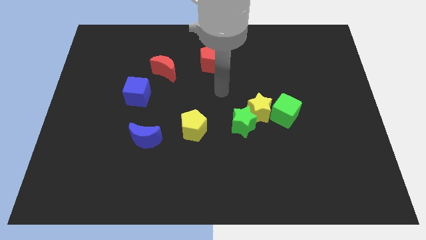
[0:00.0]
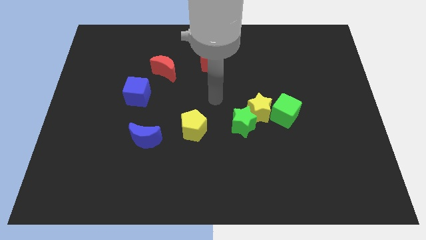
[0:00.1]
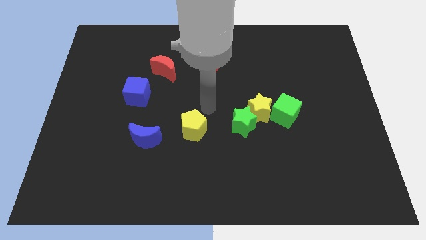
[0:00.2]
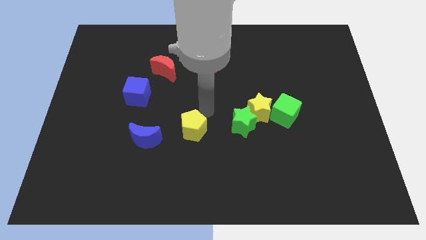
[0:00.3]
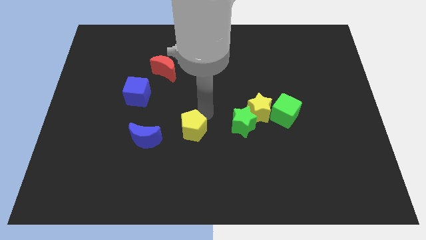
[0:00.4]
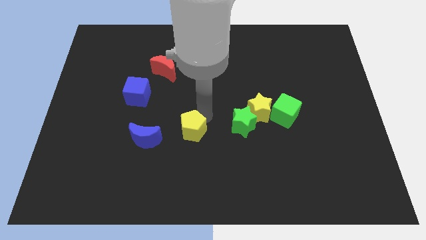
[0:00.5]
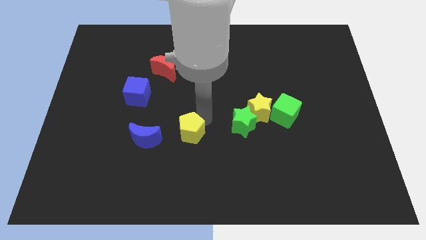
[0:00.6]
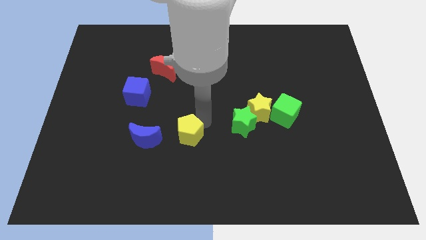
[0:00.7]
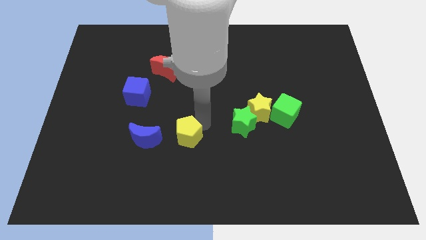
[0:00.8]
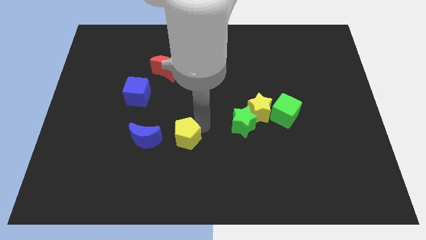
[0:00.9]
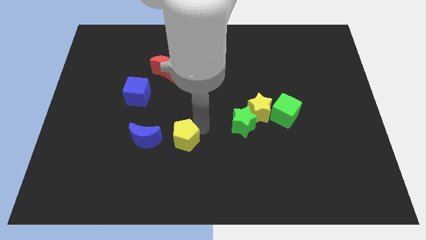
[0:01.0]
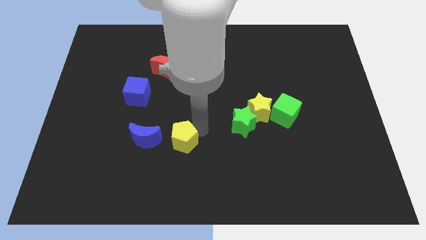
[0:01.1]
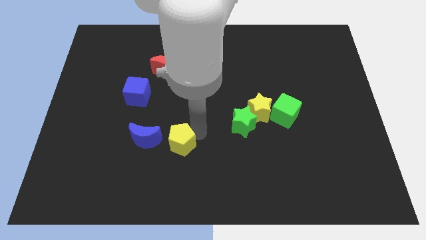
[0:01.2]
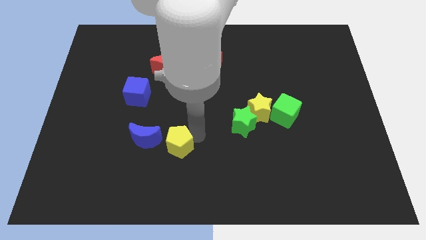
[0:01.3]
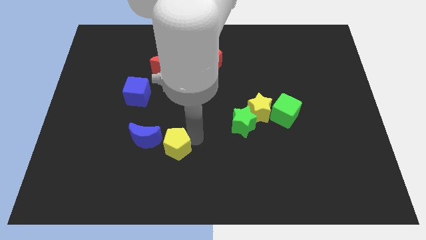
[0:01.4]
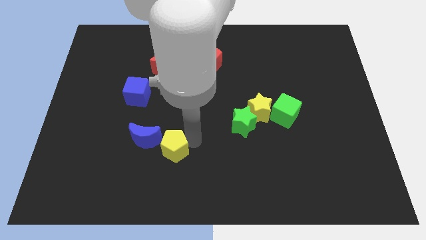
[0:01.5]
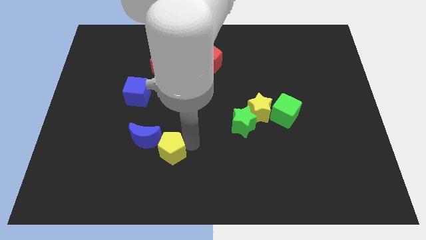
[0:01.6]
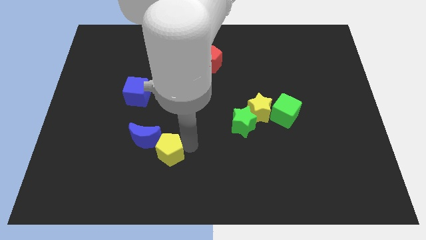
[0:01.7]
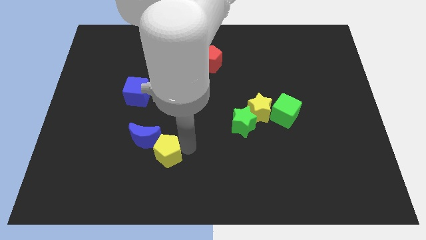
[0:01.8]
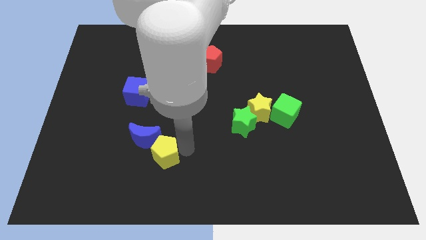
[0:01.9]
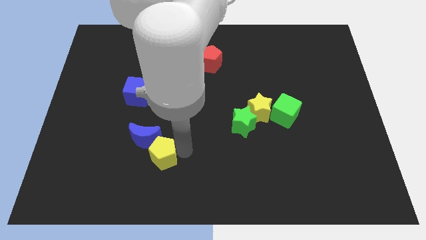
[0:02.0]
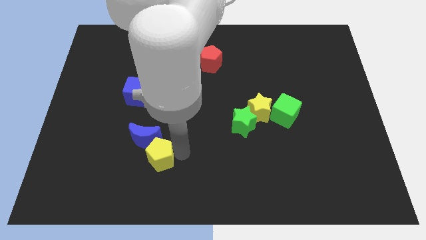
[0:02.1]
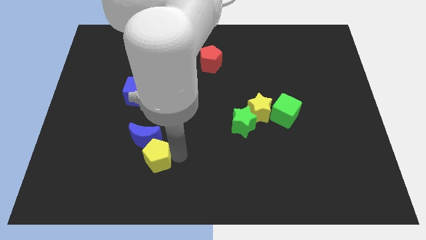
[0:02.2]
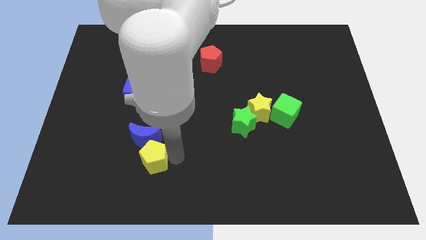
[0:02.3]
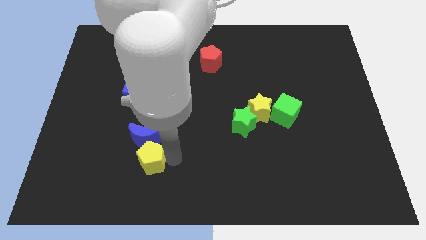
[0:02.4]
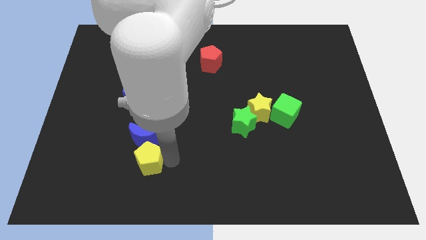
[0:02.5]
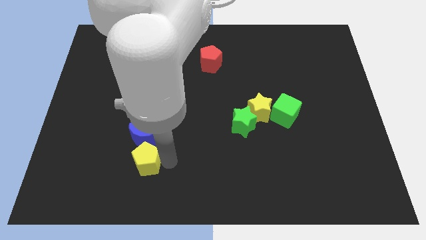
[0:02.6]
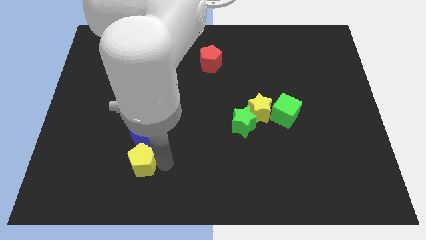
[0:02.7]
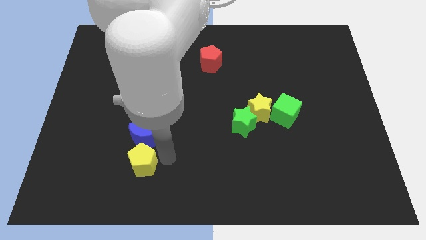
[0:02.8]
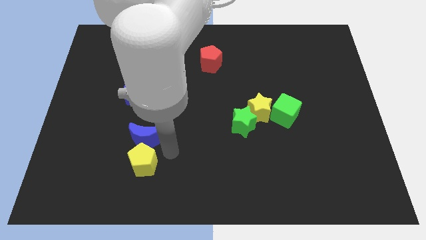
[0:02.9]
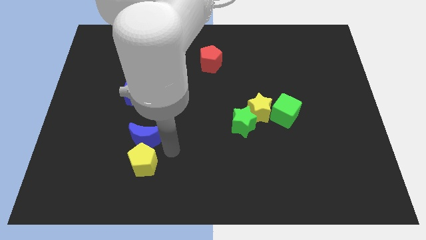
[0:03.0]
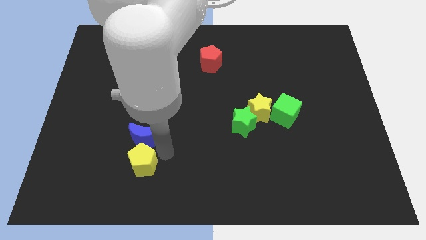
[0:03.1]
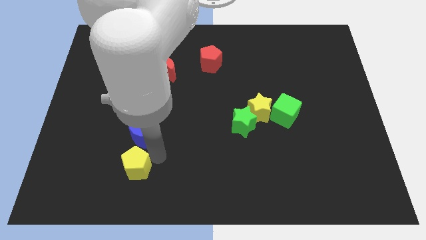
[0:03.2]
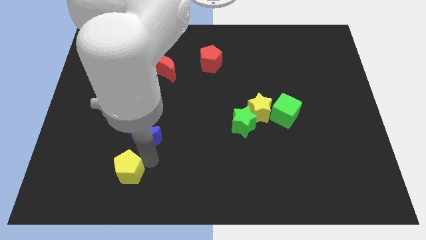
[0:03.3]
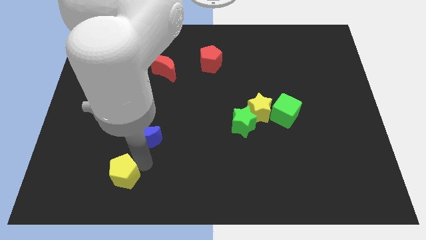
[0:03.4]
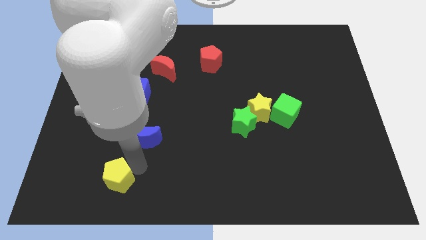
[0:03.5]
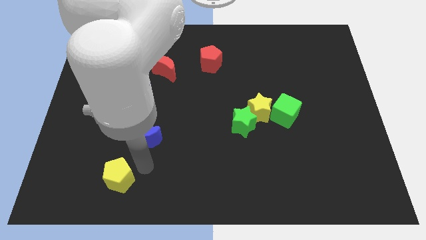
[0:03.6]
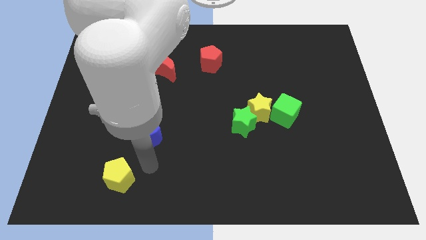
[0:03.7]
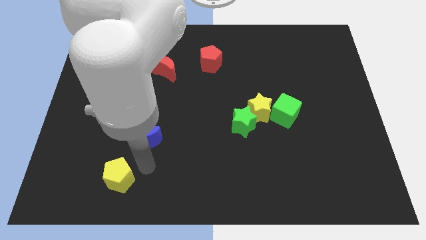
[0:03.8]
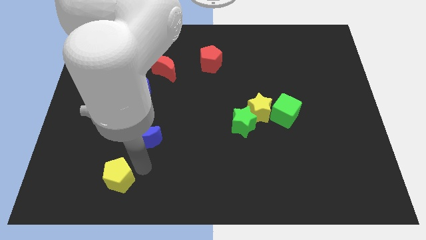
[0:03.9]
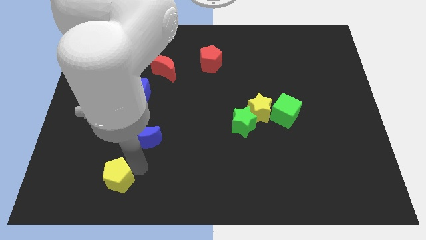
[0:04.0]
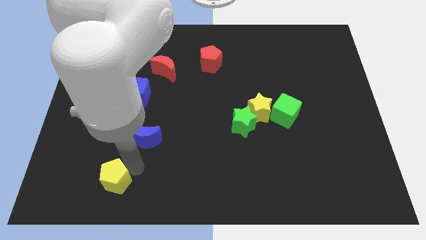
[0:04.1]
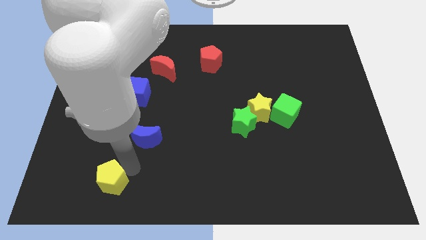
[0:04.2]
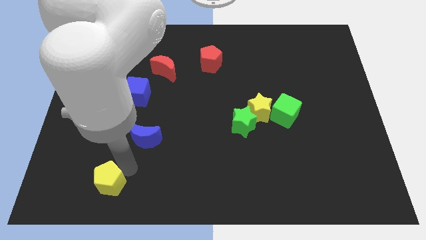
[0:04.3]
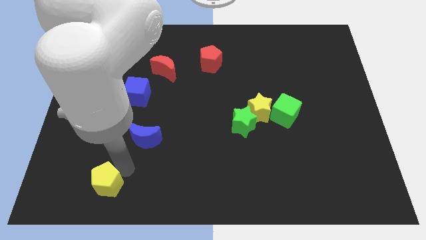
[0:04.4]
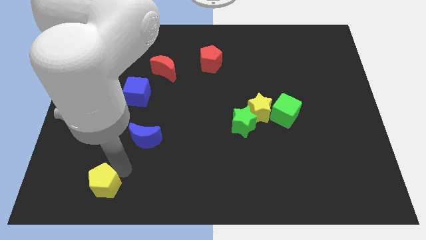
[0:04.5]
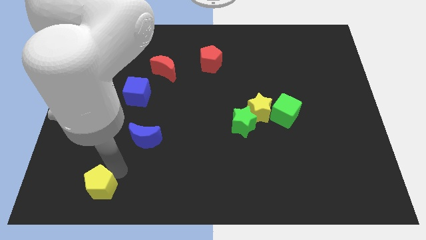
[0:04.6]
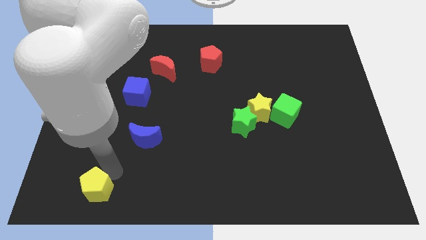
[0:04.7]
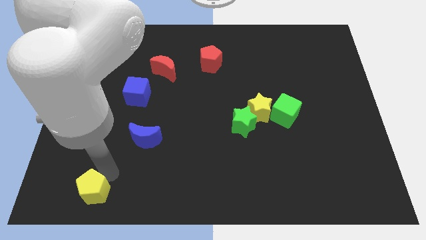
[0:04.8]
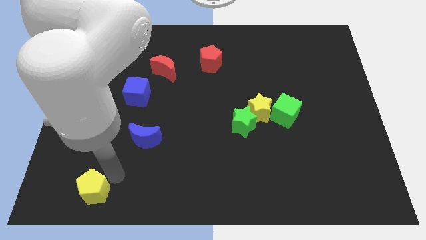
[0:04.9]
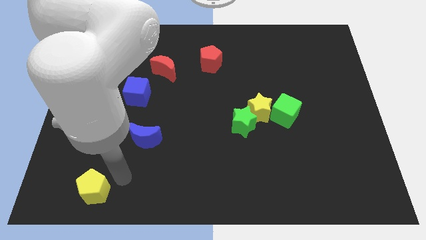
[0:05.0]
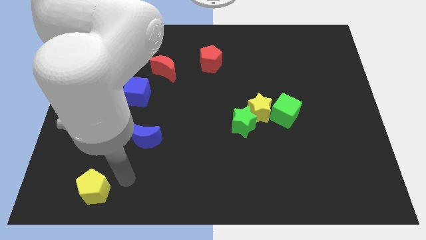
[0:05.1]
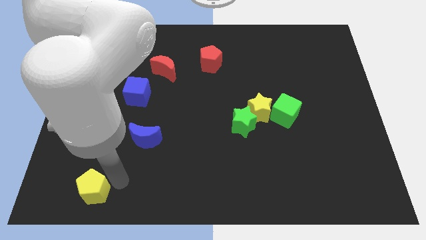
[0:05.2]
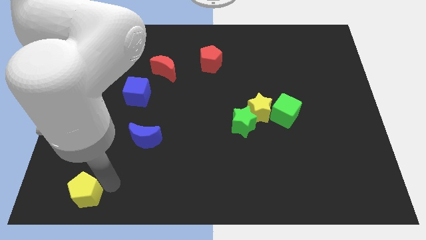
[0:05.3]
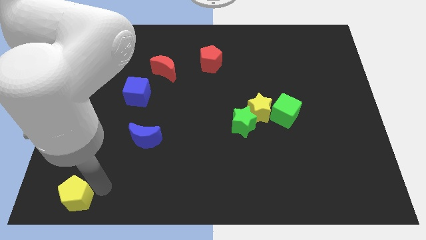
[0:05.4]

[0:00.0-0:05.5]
slide the yellow pentagon to the lower left corner

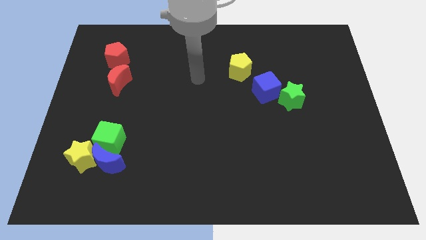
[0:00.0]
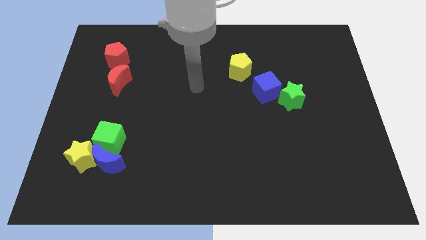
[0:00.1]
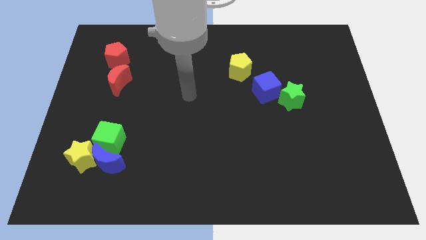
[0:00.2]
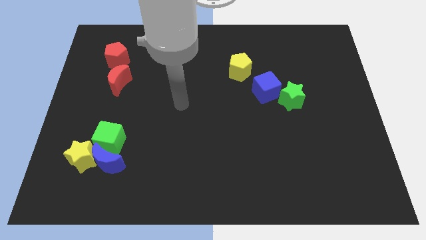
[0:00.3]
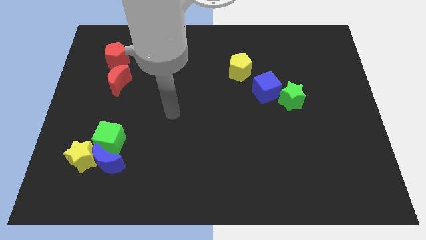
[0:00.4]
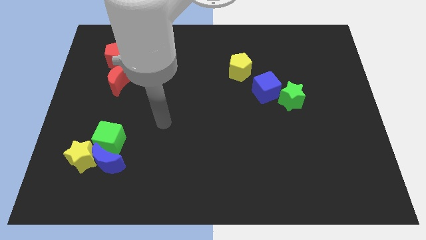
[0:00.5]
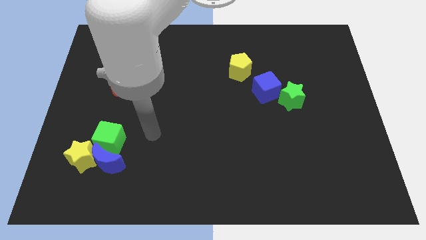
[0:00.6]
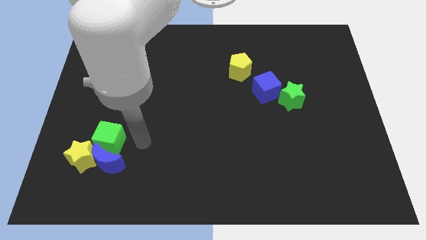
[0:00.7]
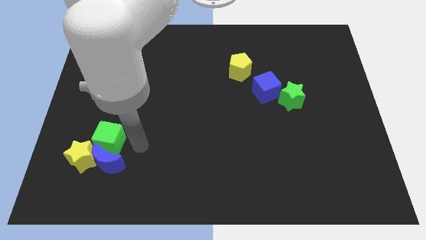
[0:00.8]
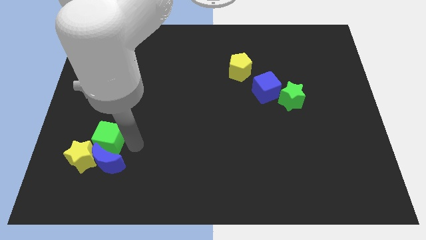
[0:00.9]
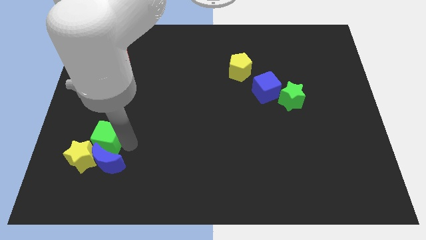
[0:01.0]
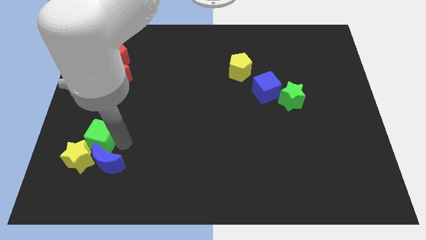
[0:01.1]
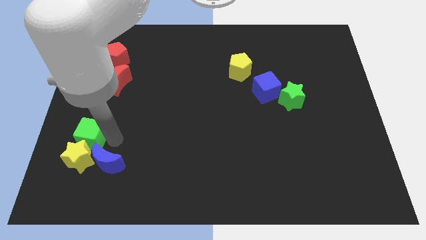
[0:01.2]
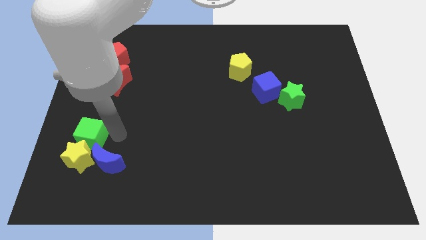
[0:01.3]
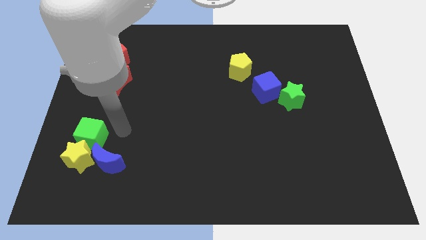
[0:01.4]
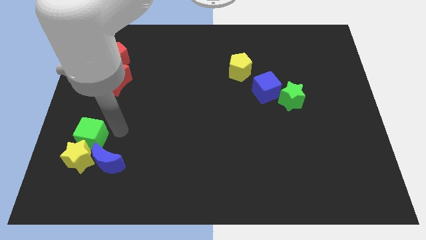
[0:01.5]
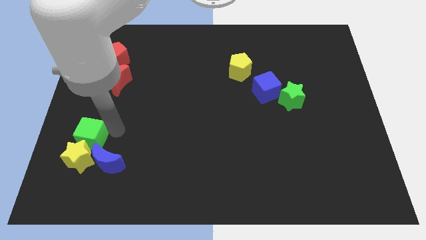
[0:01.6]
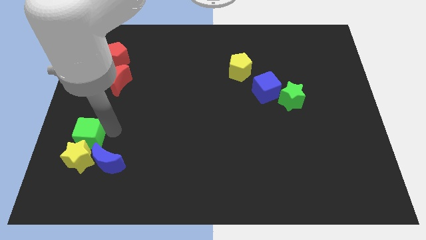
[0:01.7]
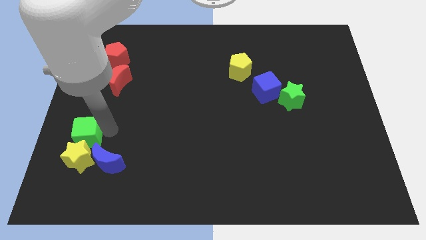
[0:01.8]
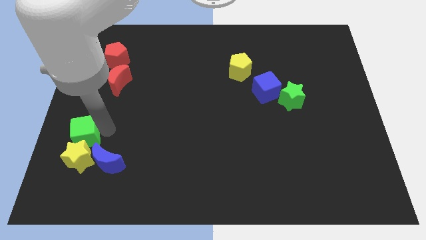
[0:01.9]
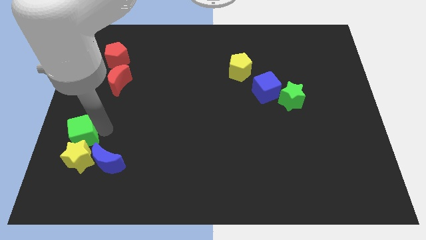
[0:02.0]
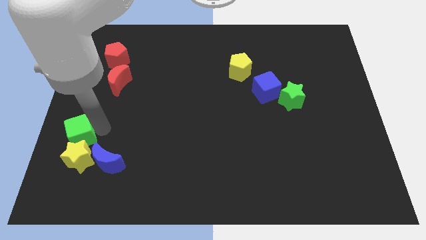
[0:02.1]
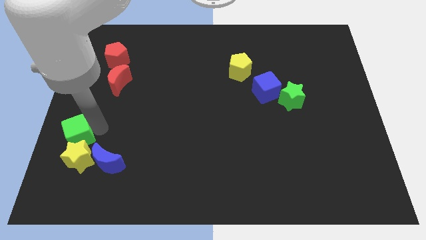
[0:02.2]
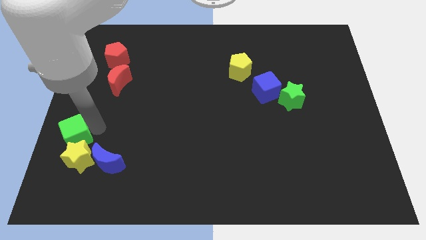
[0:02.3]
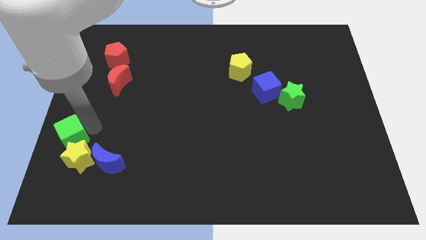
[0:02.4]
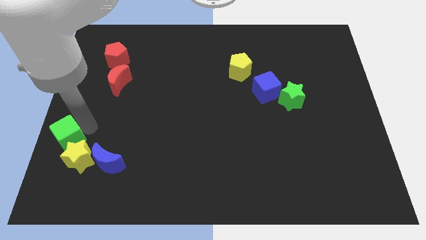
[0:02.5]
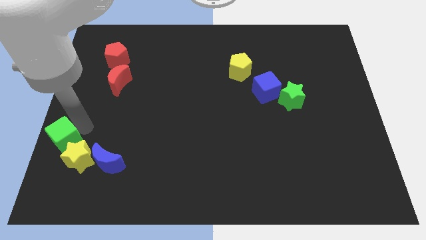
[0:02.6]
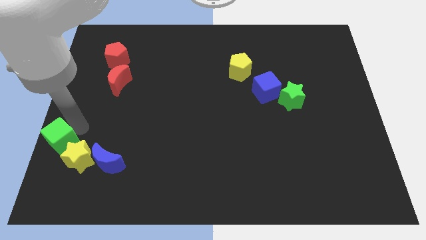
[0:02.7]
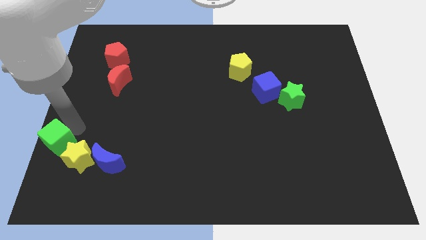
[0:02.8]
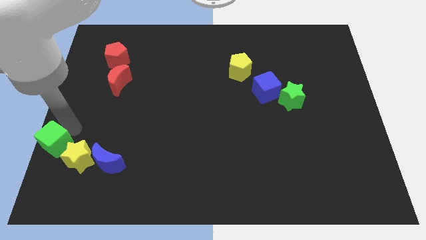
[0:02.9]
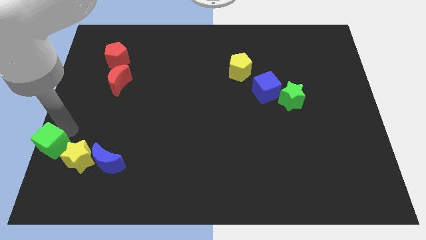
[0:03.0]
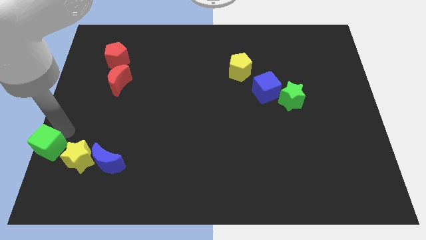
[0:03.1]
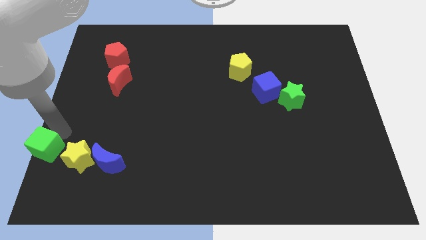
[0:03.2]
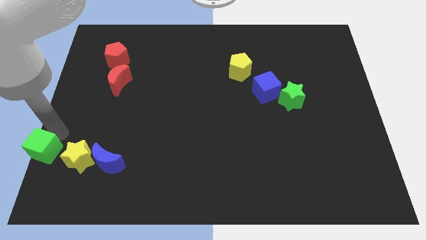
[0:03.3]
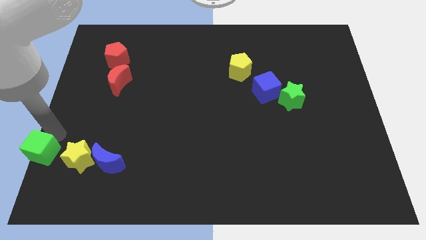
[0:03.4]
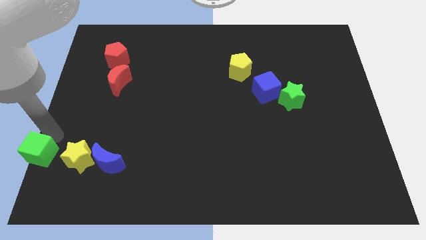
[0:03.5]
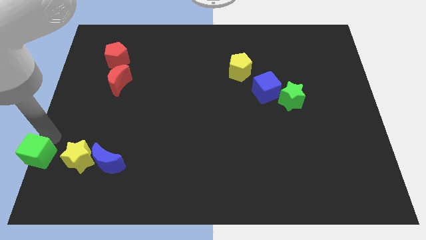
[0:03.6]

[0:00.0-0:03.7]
move the green cube to the bottom left corner
